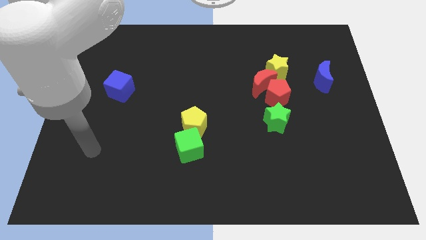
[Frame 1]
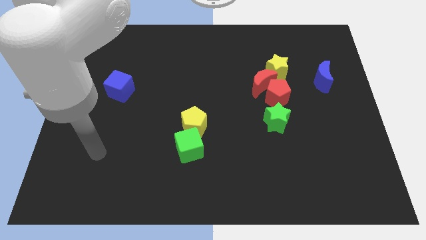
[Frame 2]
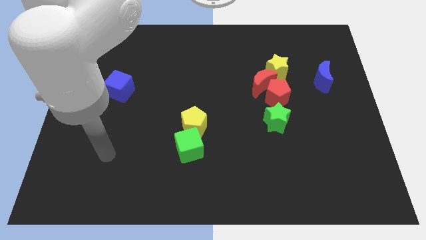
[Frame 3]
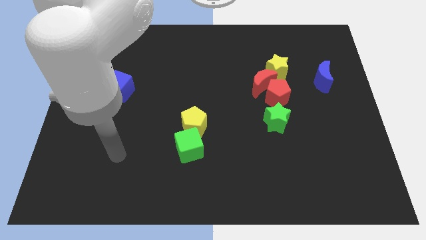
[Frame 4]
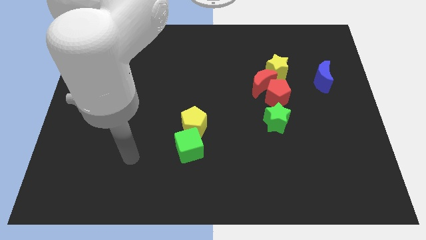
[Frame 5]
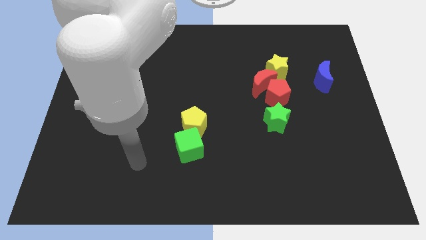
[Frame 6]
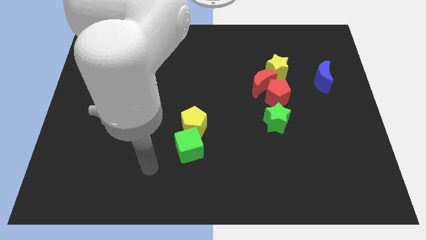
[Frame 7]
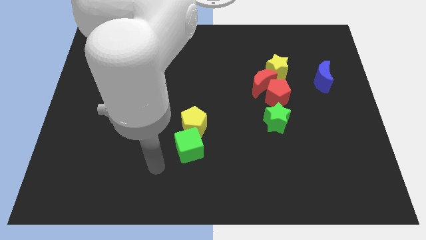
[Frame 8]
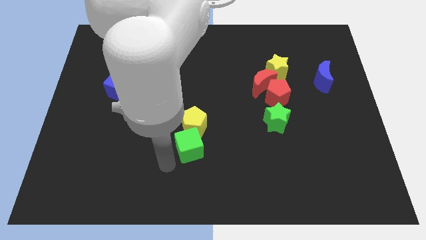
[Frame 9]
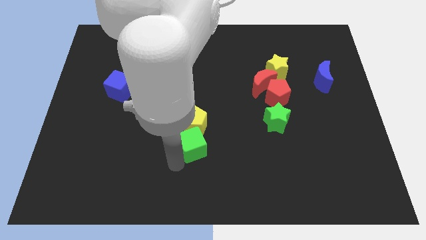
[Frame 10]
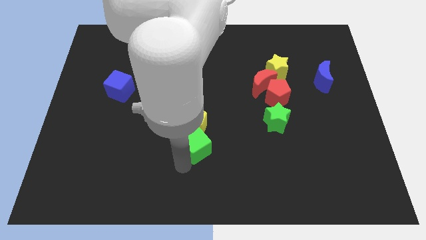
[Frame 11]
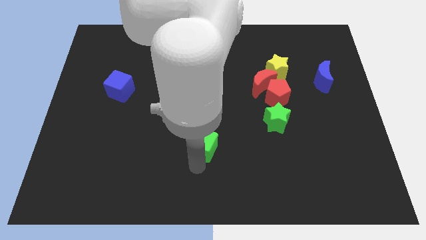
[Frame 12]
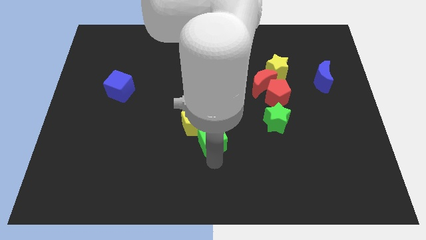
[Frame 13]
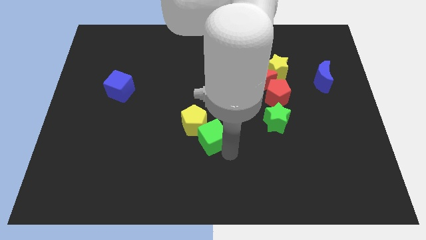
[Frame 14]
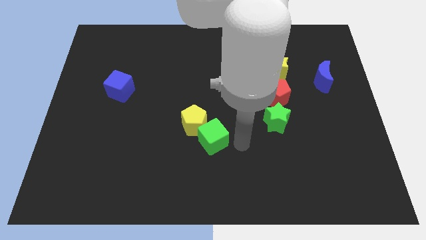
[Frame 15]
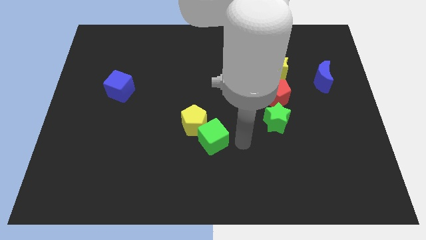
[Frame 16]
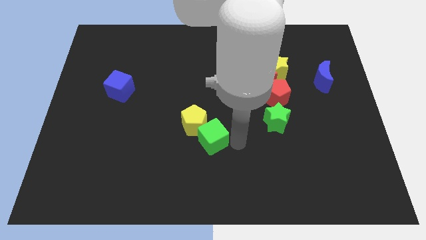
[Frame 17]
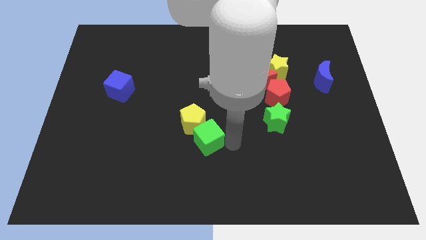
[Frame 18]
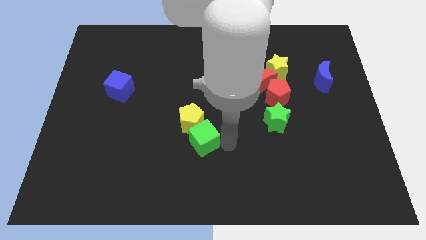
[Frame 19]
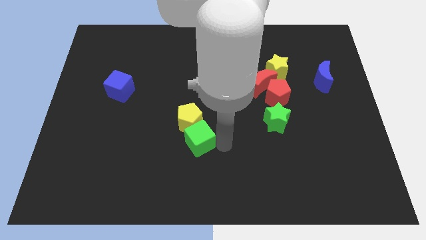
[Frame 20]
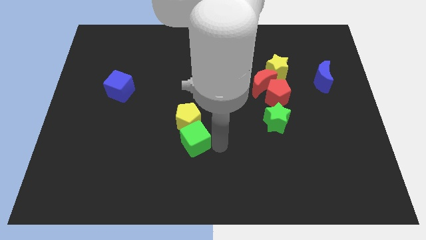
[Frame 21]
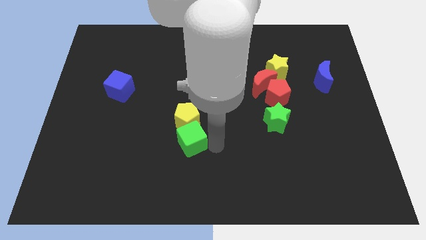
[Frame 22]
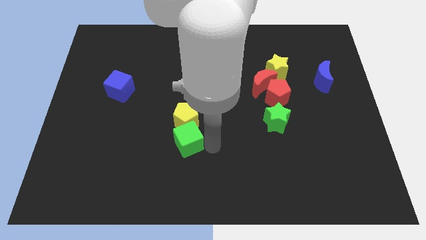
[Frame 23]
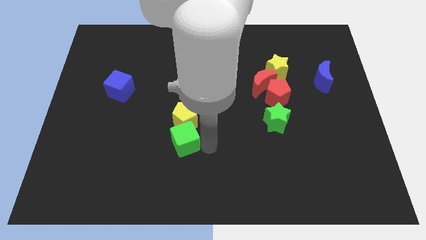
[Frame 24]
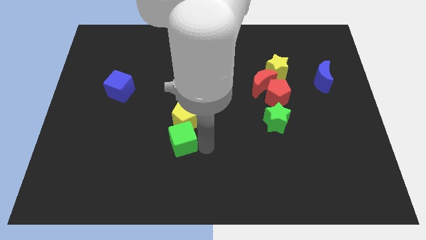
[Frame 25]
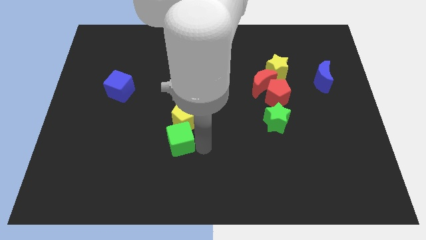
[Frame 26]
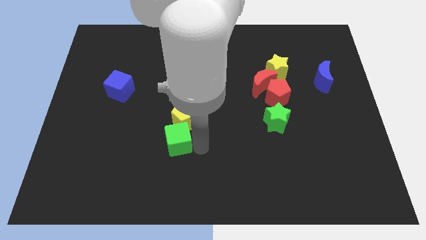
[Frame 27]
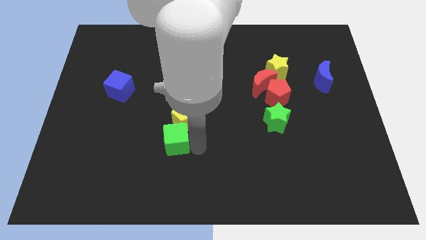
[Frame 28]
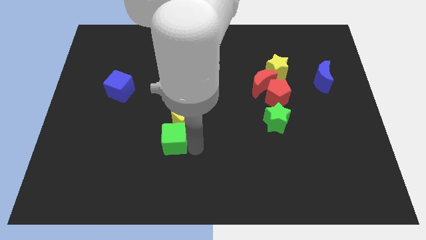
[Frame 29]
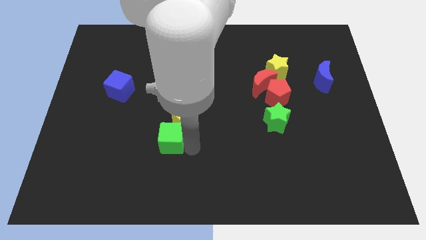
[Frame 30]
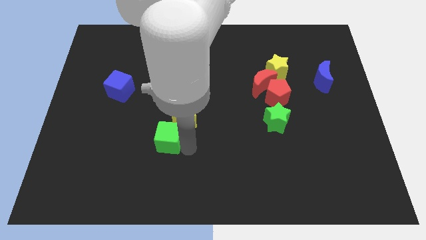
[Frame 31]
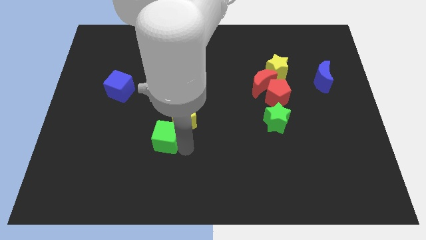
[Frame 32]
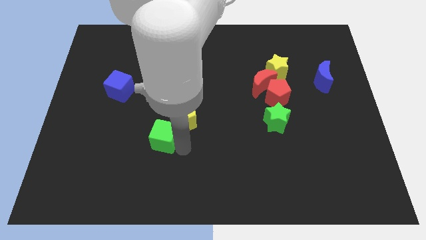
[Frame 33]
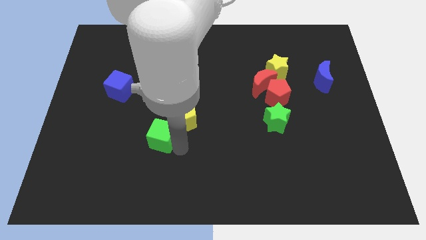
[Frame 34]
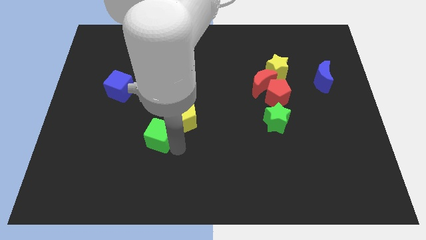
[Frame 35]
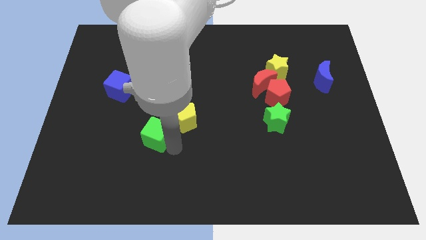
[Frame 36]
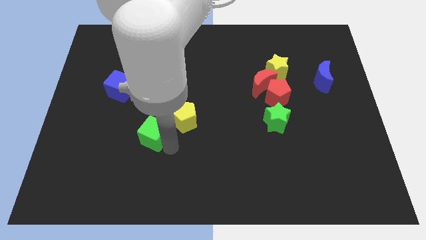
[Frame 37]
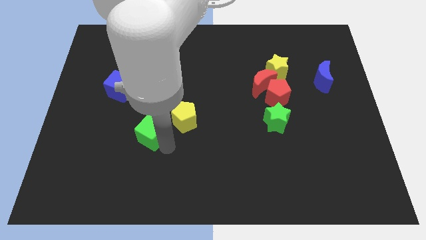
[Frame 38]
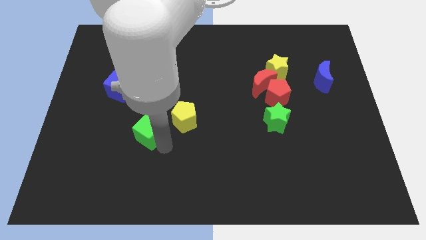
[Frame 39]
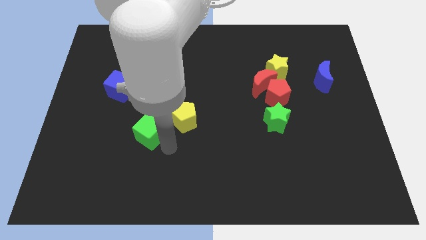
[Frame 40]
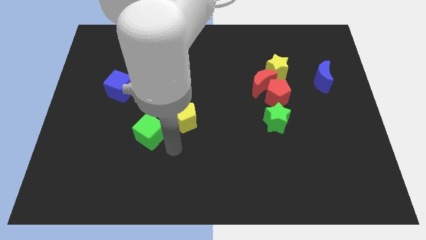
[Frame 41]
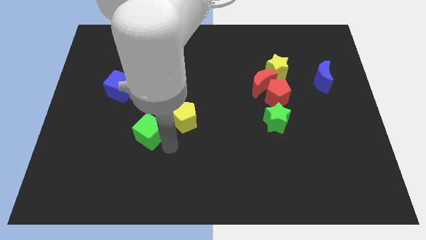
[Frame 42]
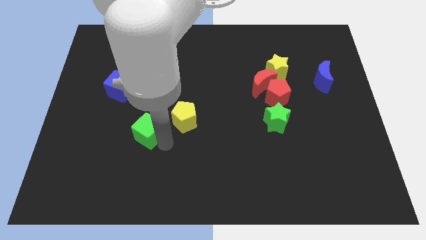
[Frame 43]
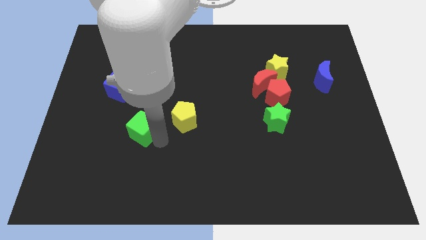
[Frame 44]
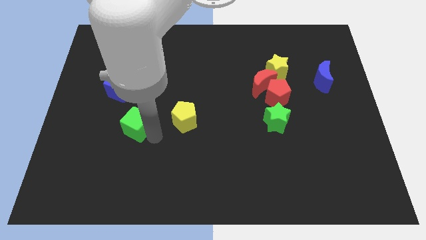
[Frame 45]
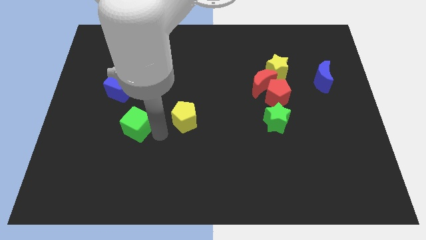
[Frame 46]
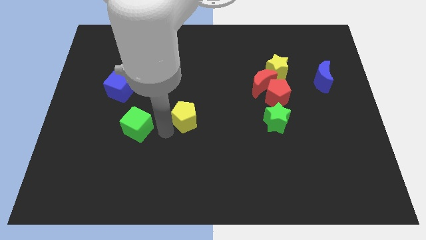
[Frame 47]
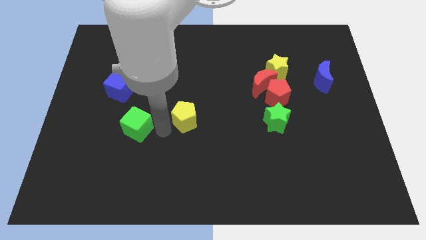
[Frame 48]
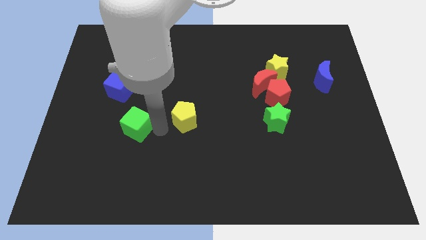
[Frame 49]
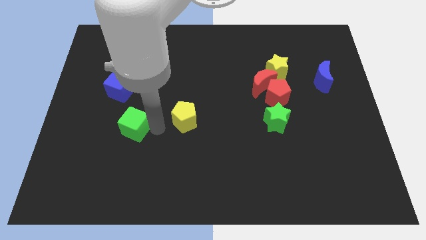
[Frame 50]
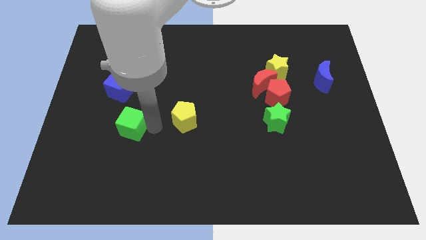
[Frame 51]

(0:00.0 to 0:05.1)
push the green cube to the bottom of the blue cube

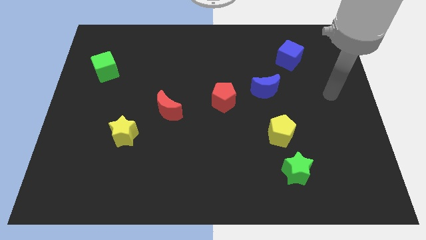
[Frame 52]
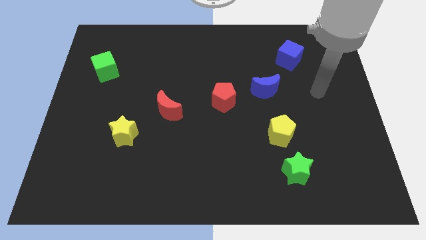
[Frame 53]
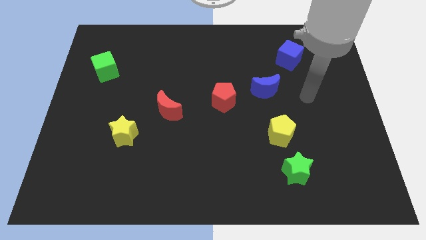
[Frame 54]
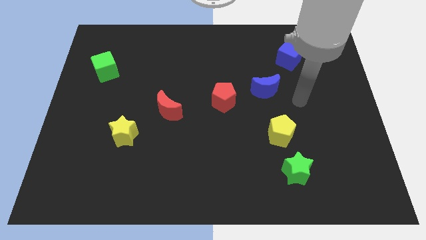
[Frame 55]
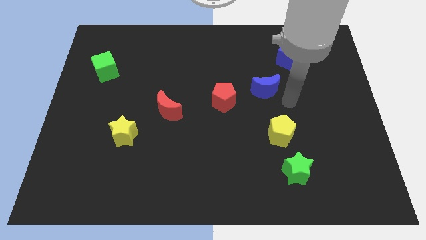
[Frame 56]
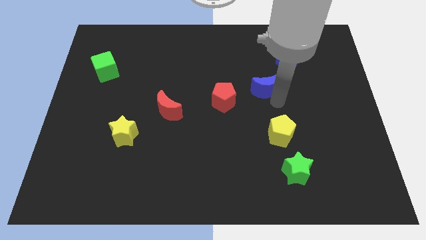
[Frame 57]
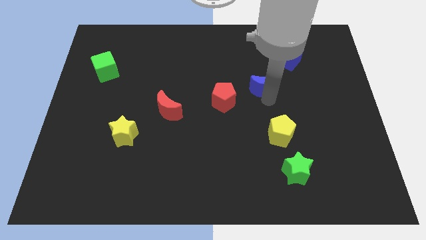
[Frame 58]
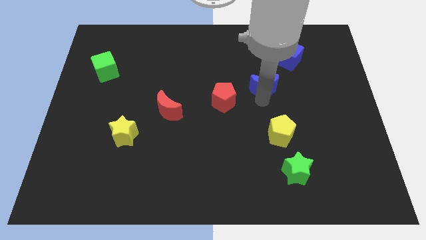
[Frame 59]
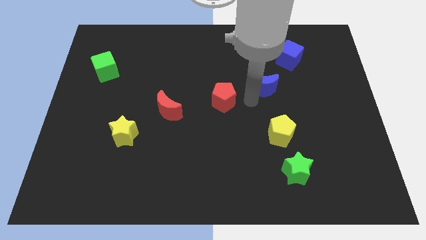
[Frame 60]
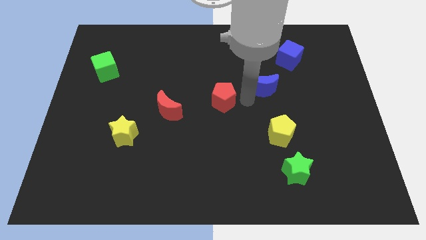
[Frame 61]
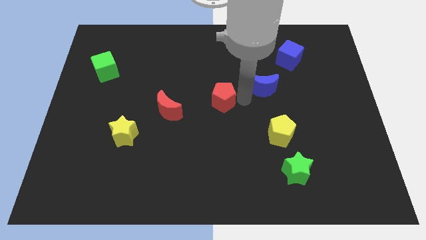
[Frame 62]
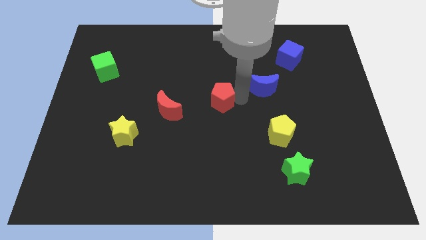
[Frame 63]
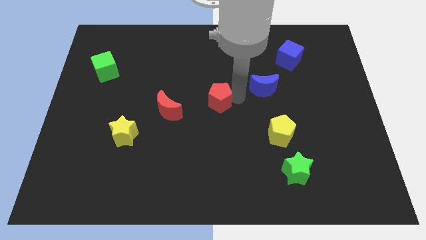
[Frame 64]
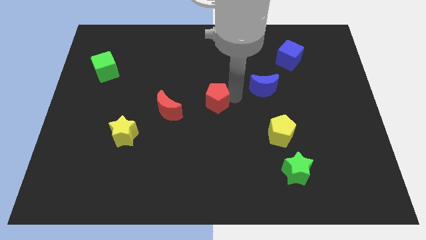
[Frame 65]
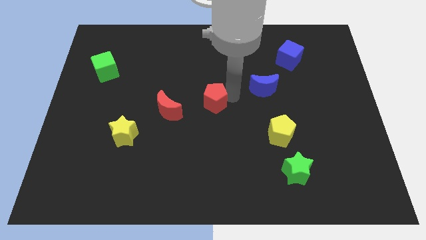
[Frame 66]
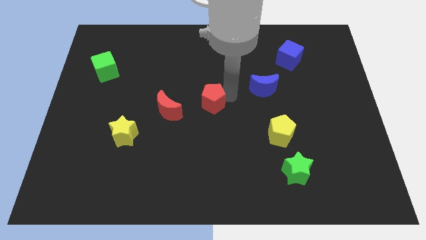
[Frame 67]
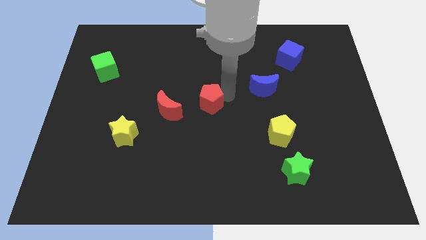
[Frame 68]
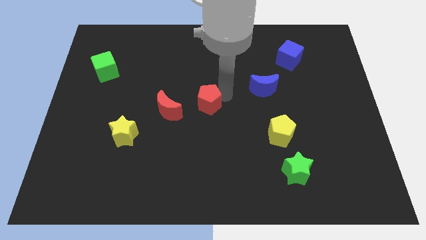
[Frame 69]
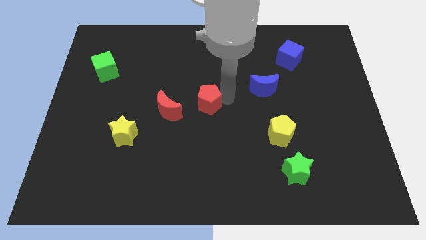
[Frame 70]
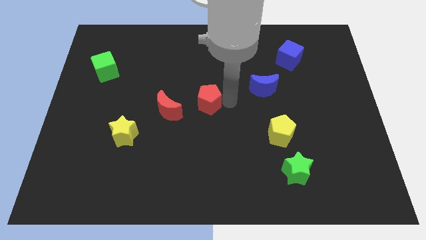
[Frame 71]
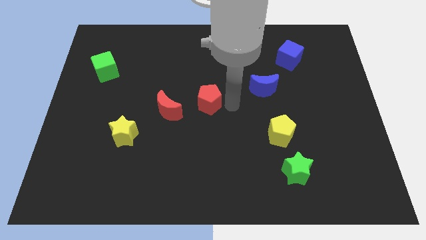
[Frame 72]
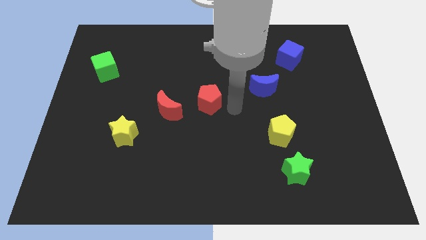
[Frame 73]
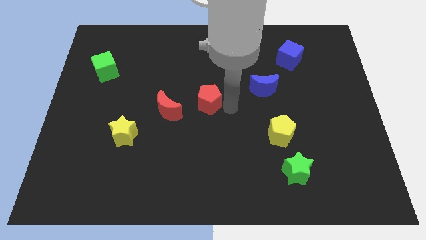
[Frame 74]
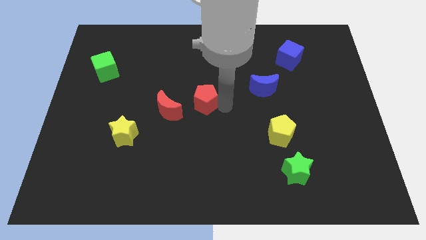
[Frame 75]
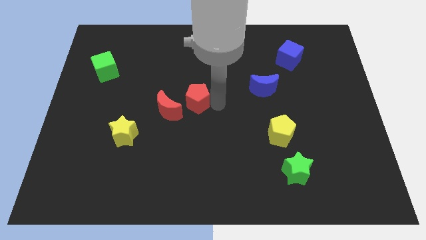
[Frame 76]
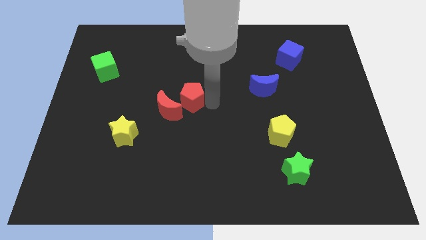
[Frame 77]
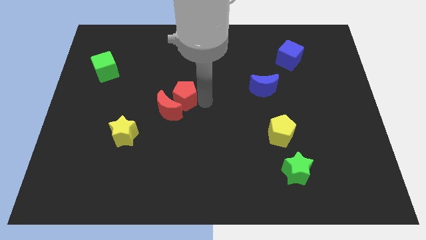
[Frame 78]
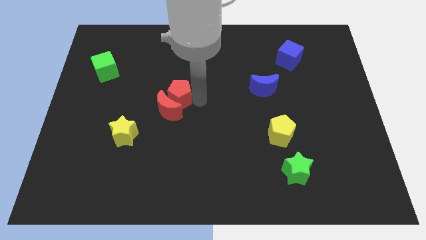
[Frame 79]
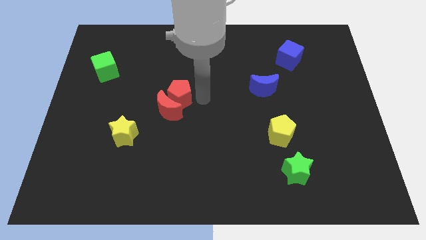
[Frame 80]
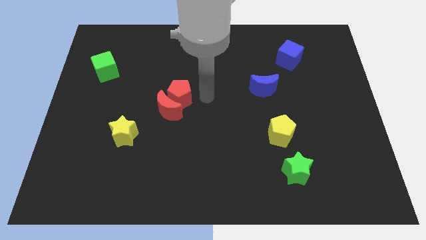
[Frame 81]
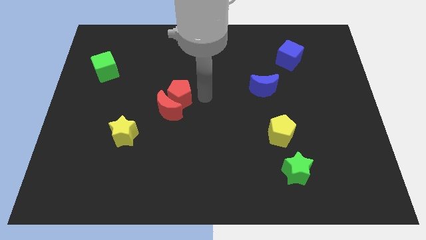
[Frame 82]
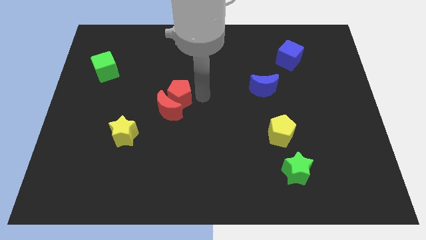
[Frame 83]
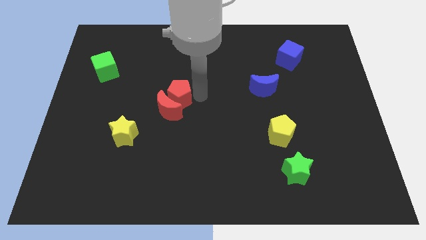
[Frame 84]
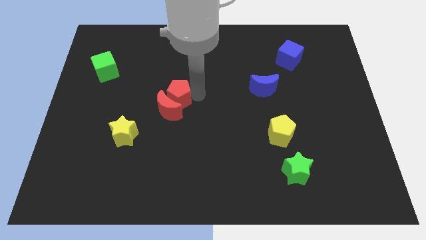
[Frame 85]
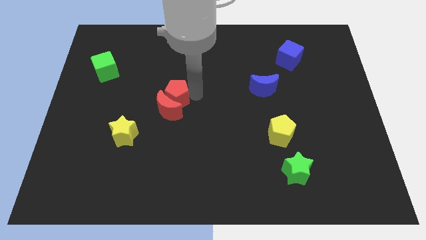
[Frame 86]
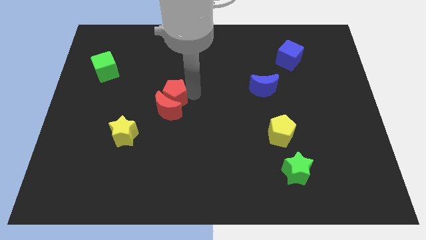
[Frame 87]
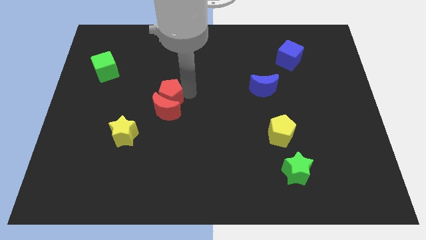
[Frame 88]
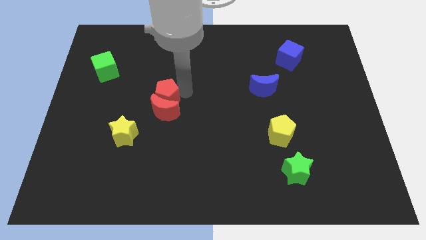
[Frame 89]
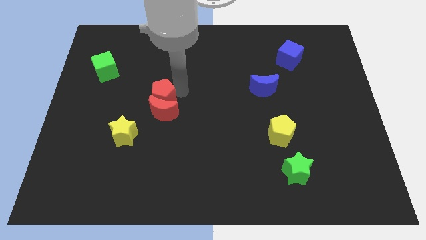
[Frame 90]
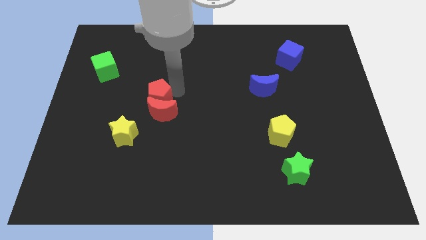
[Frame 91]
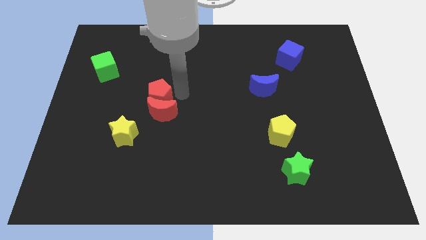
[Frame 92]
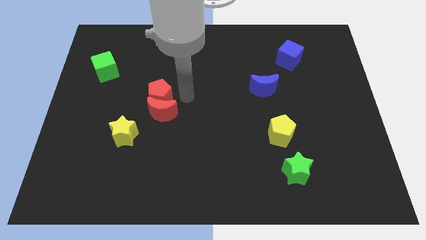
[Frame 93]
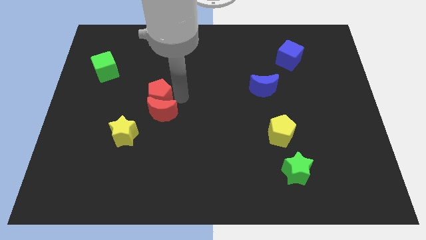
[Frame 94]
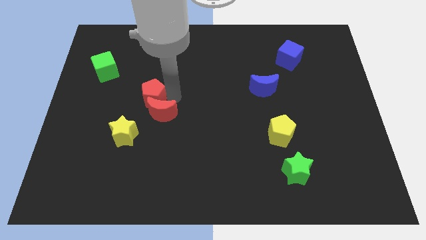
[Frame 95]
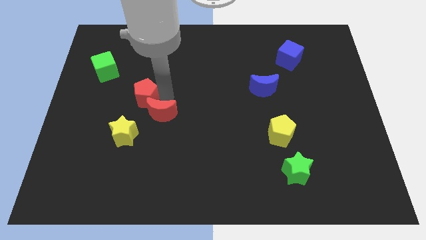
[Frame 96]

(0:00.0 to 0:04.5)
move the red pentagon above the yellow star
